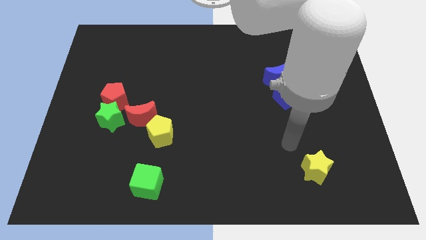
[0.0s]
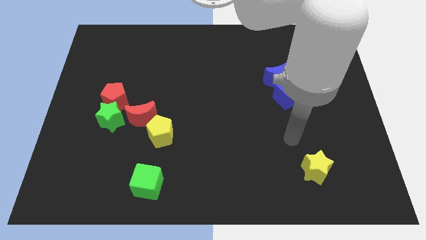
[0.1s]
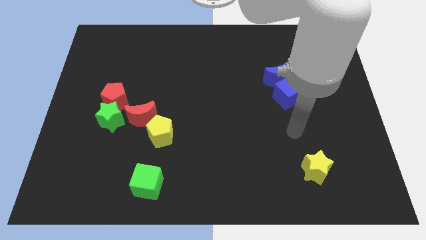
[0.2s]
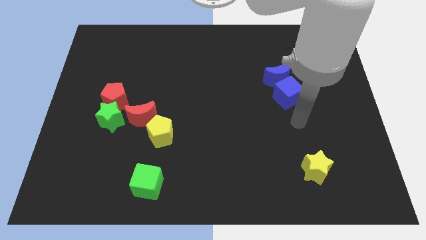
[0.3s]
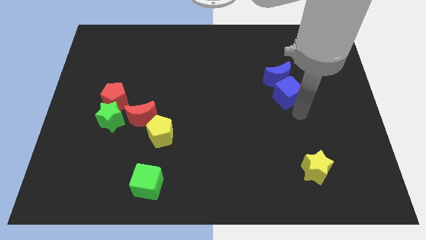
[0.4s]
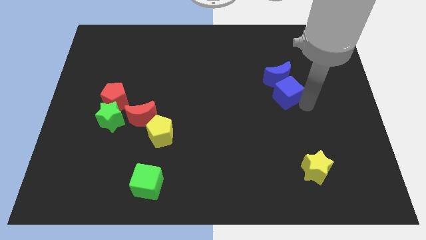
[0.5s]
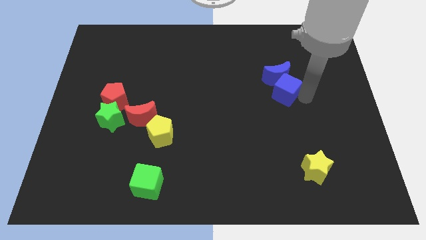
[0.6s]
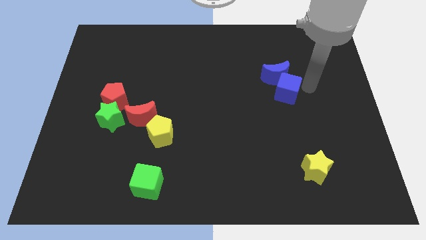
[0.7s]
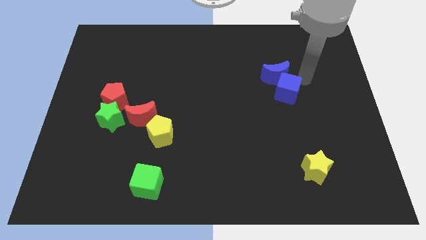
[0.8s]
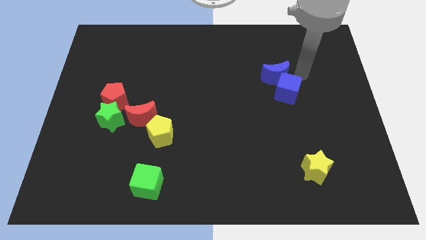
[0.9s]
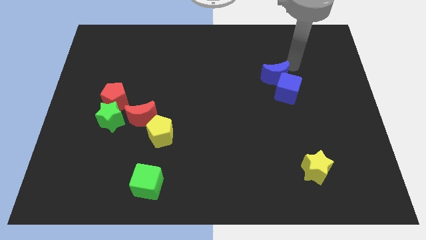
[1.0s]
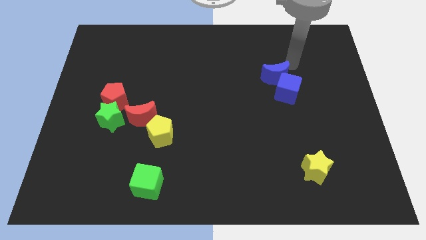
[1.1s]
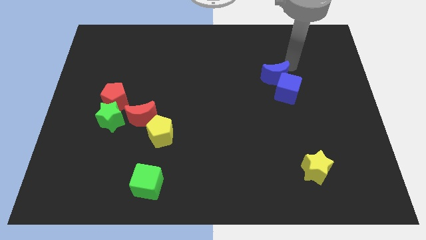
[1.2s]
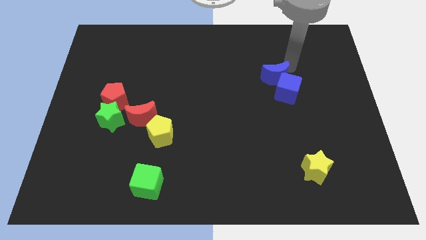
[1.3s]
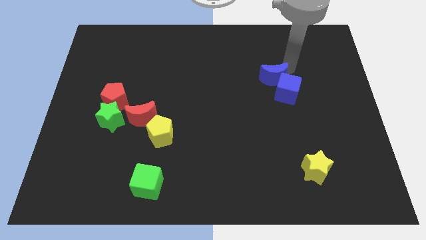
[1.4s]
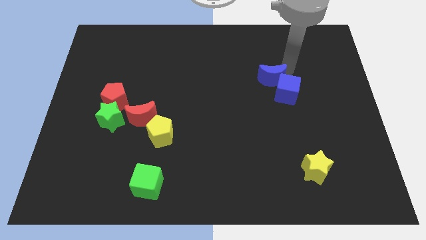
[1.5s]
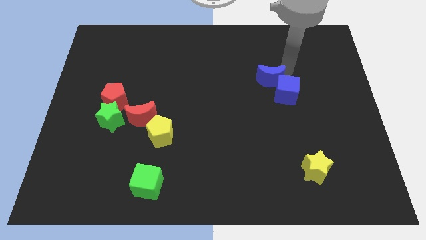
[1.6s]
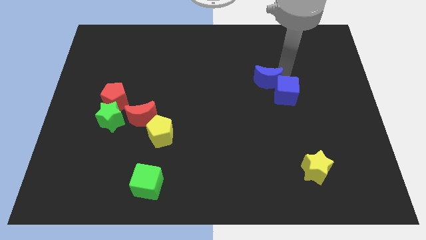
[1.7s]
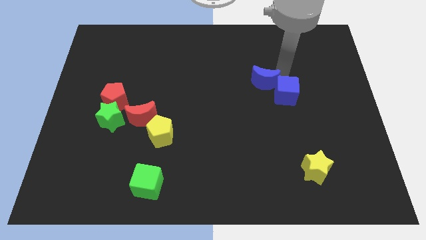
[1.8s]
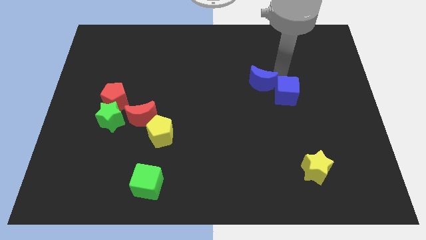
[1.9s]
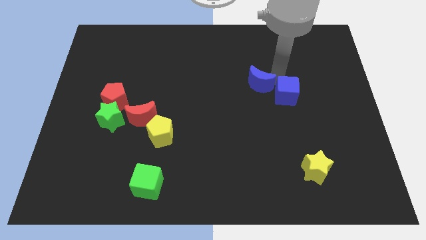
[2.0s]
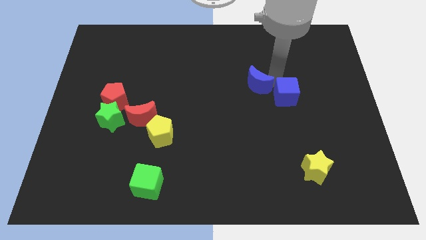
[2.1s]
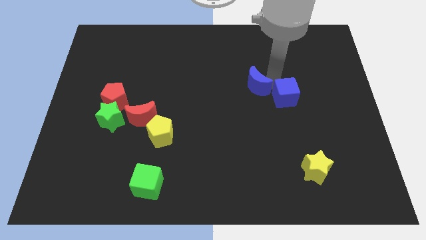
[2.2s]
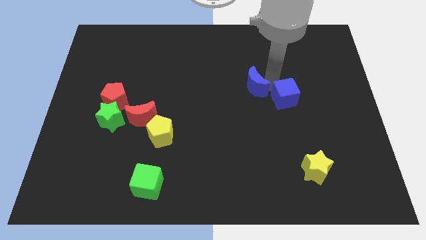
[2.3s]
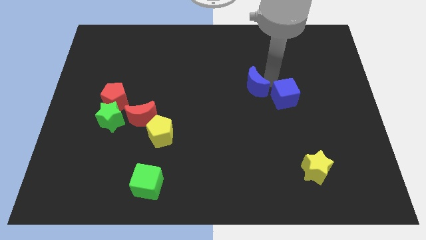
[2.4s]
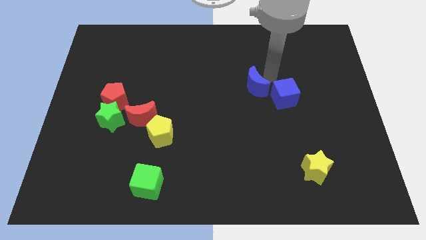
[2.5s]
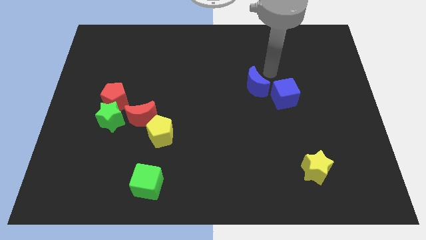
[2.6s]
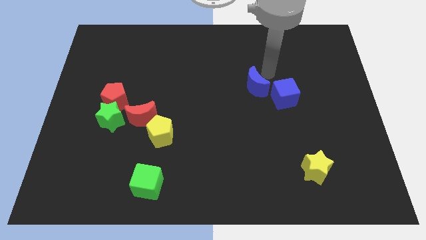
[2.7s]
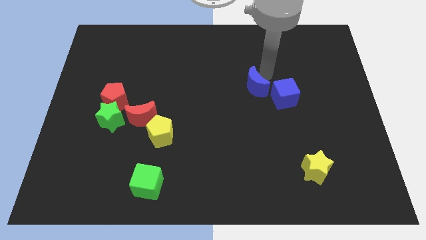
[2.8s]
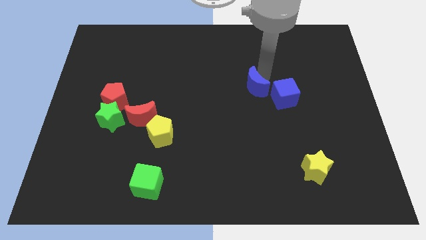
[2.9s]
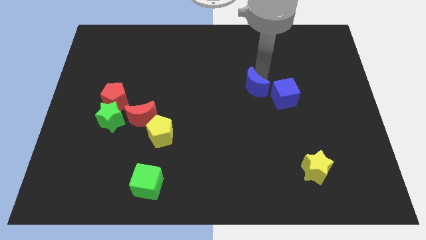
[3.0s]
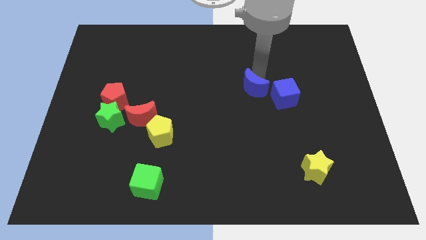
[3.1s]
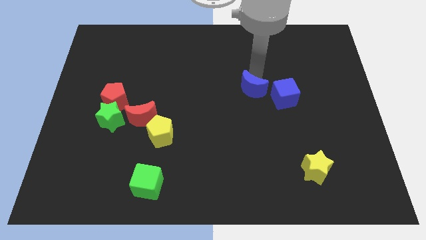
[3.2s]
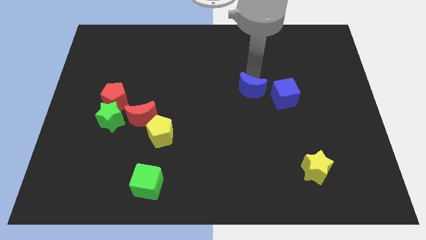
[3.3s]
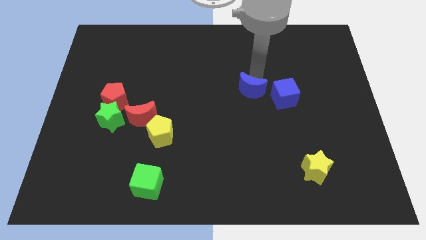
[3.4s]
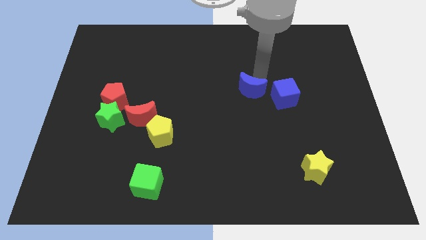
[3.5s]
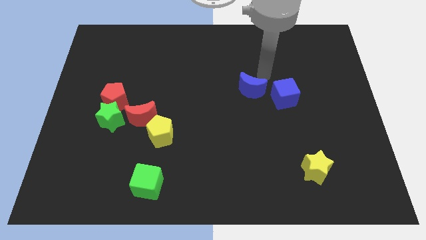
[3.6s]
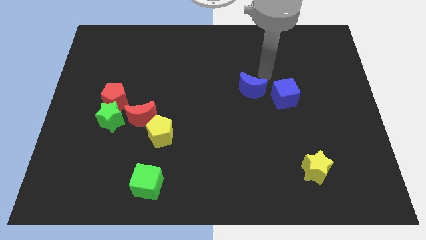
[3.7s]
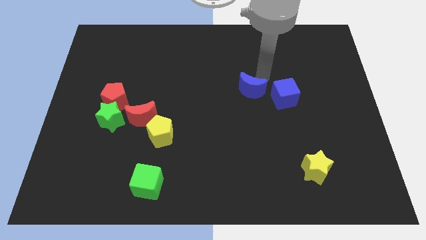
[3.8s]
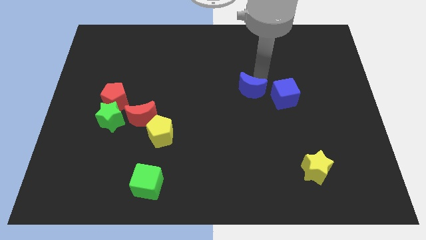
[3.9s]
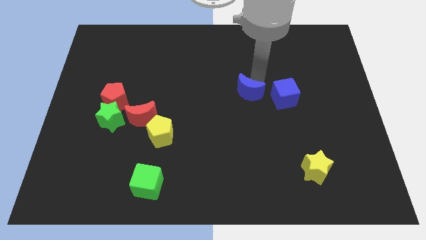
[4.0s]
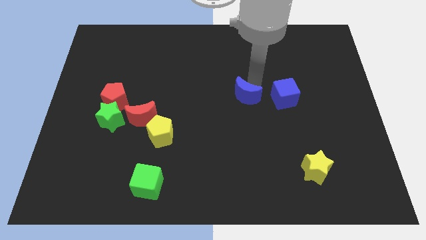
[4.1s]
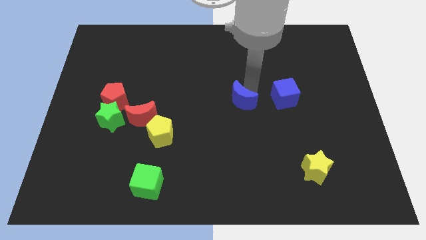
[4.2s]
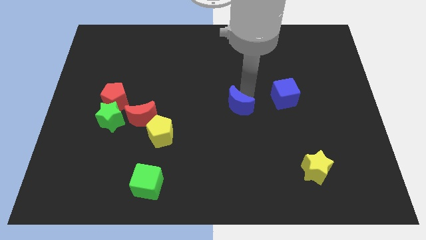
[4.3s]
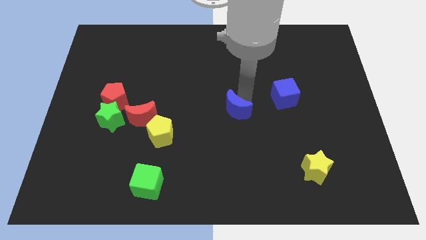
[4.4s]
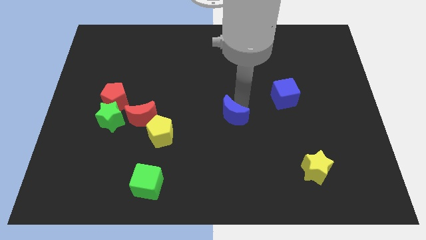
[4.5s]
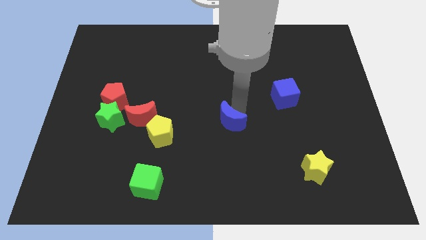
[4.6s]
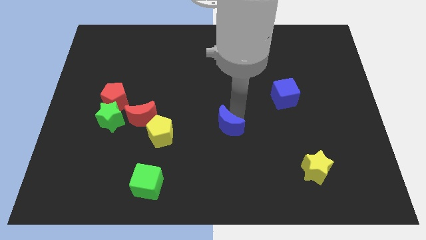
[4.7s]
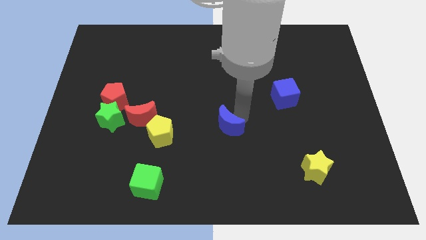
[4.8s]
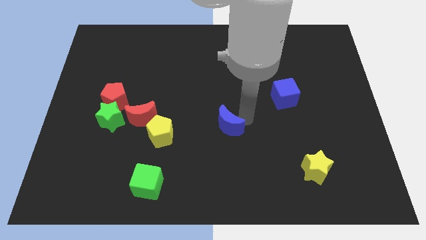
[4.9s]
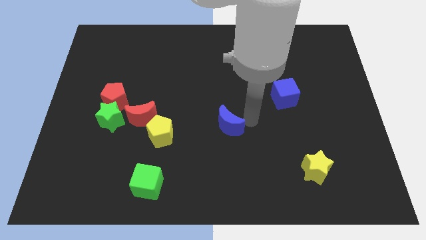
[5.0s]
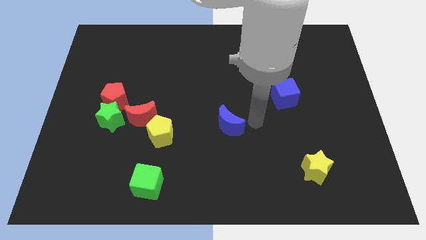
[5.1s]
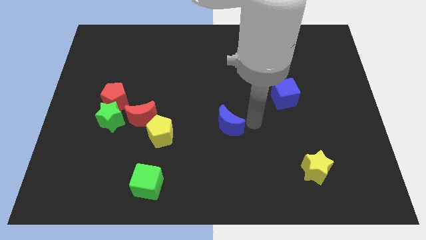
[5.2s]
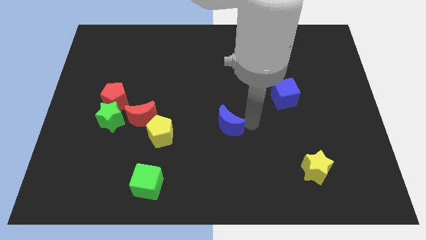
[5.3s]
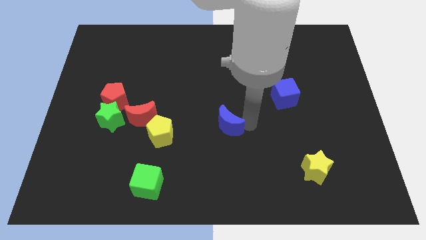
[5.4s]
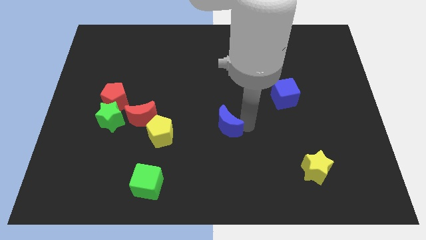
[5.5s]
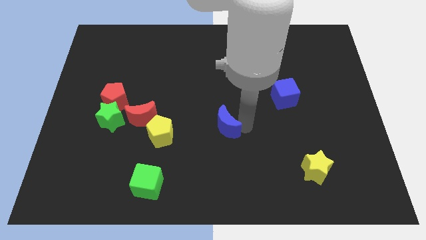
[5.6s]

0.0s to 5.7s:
slide the blue moon downwards and then to the left

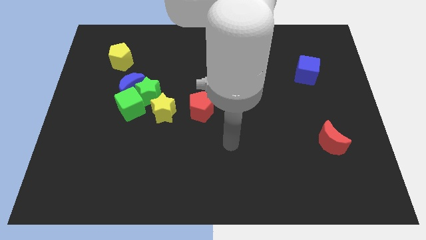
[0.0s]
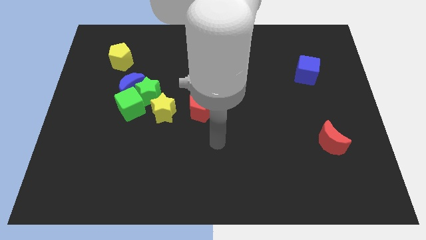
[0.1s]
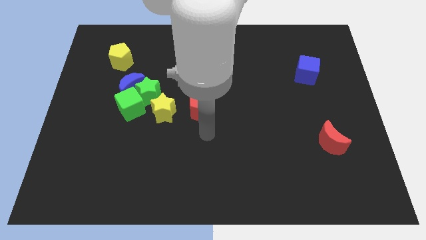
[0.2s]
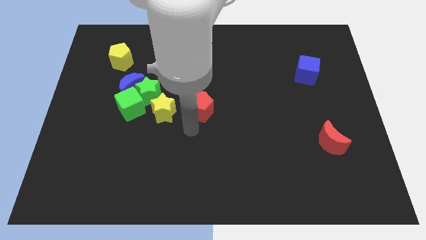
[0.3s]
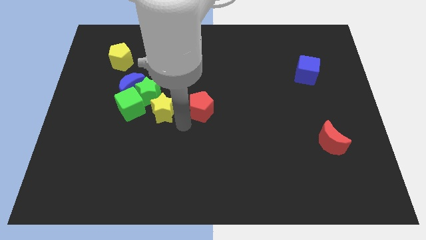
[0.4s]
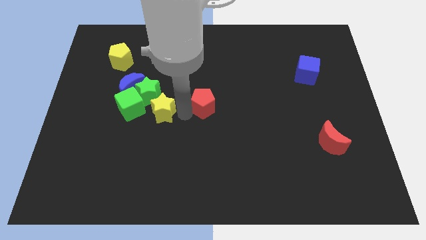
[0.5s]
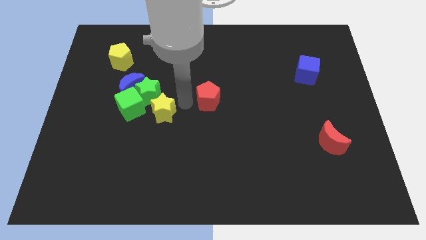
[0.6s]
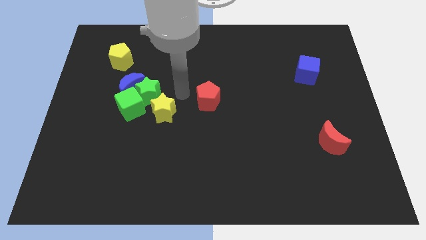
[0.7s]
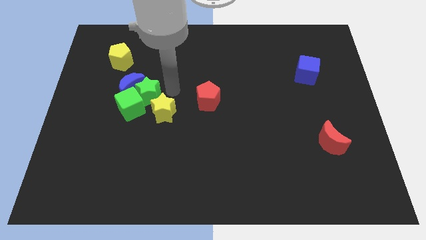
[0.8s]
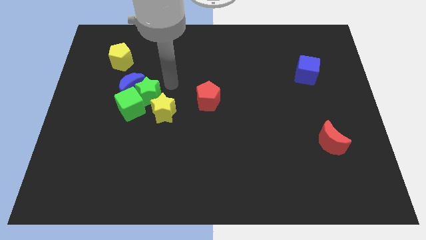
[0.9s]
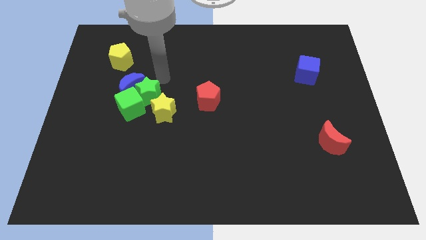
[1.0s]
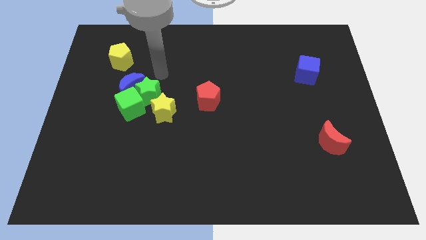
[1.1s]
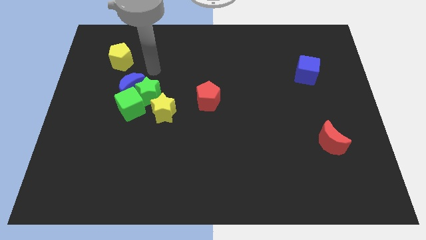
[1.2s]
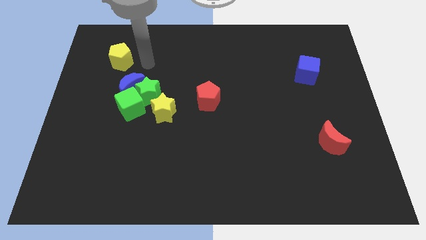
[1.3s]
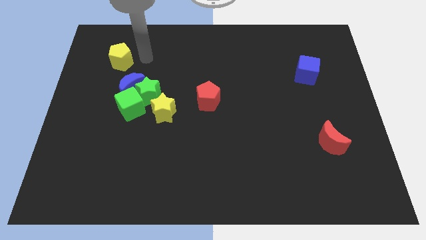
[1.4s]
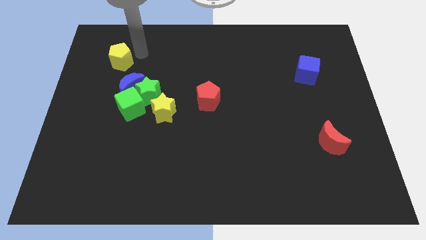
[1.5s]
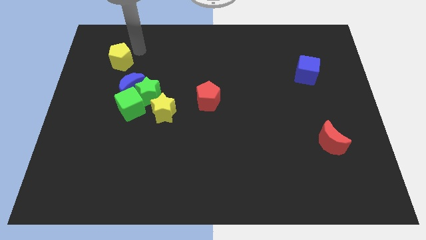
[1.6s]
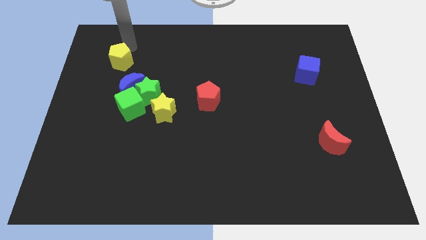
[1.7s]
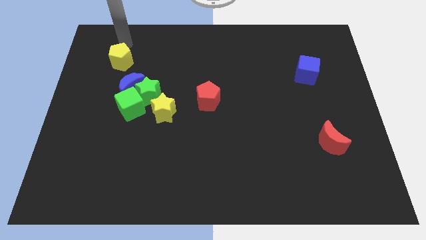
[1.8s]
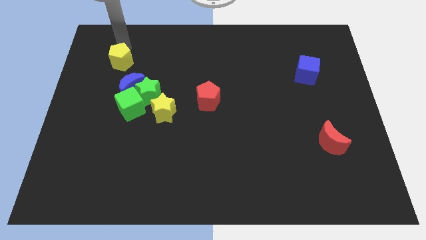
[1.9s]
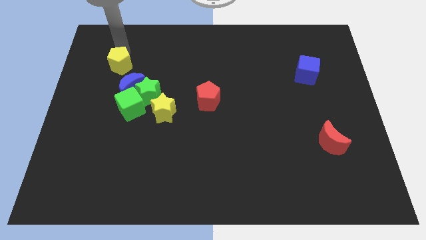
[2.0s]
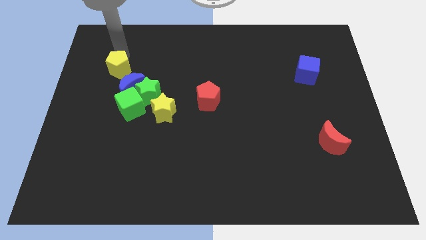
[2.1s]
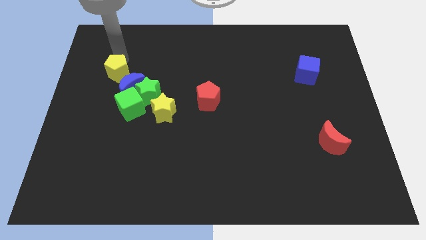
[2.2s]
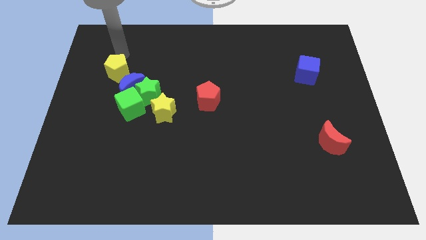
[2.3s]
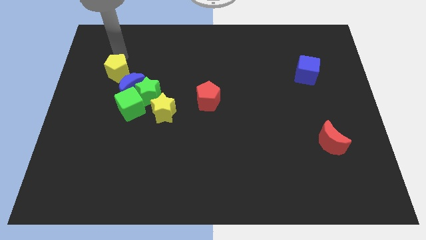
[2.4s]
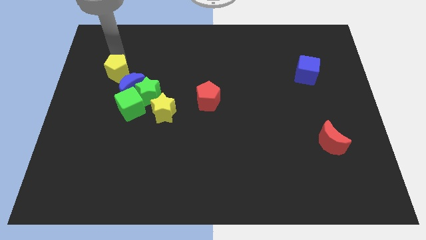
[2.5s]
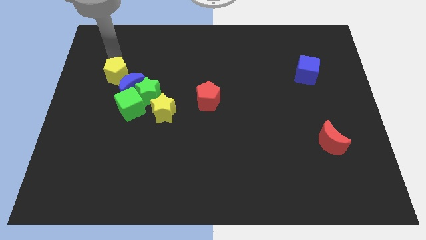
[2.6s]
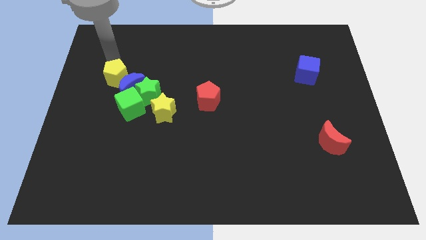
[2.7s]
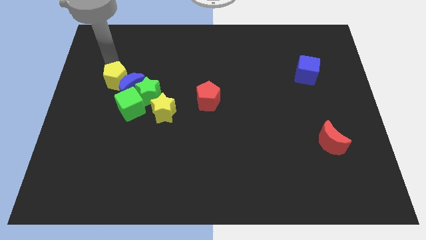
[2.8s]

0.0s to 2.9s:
push the yellow pentagon slightly down
